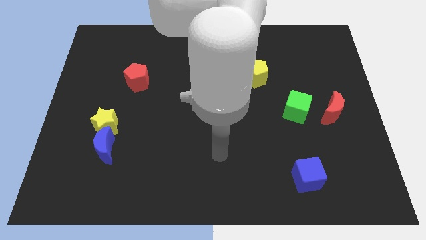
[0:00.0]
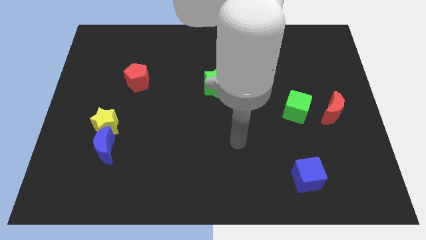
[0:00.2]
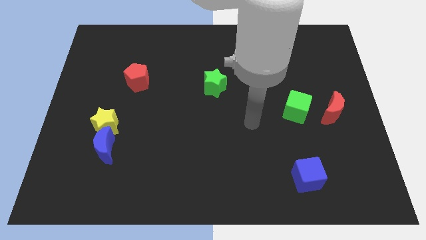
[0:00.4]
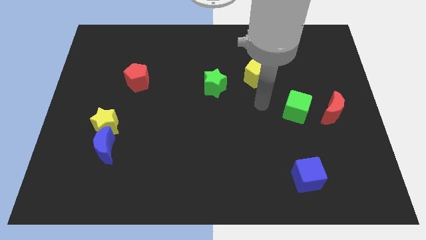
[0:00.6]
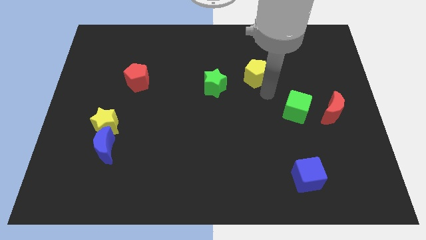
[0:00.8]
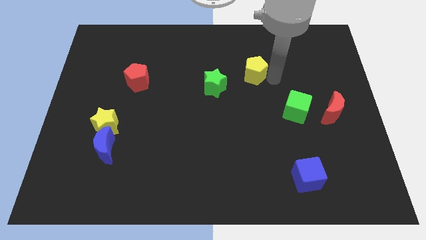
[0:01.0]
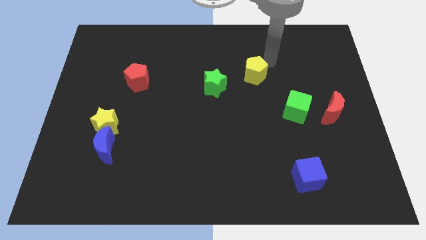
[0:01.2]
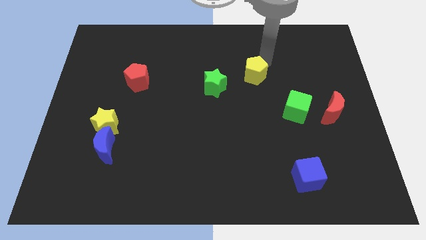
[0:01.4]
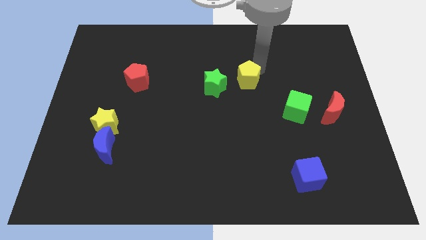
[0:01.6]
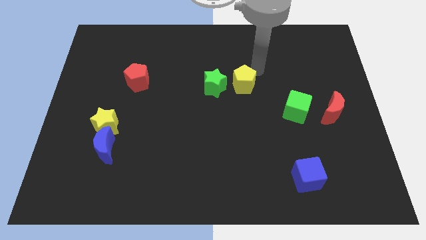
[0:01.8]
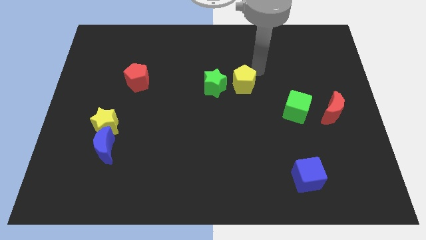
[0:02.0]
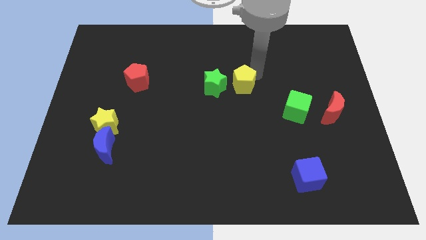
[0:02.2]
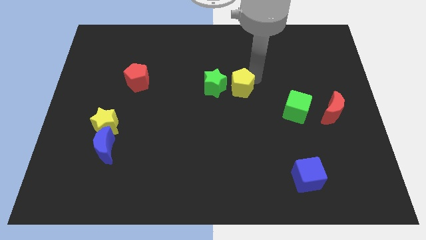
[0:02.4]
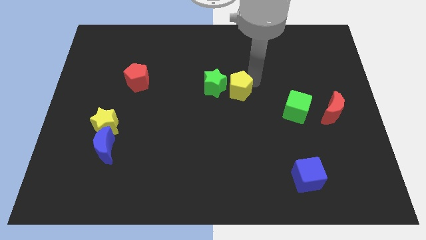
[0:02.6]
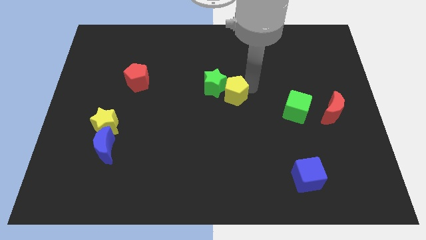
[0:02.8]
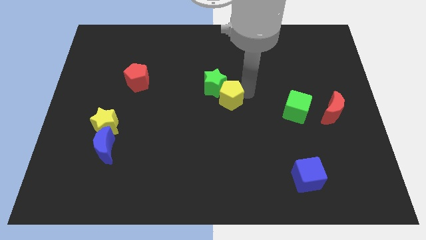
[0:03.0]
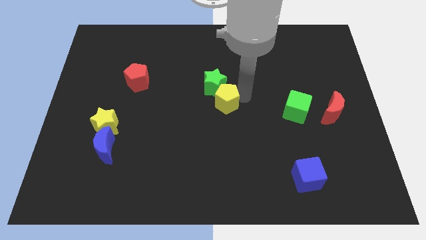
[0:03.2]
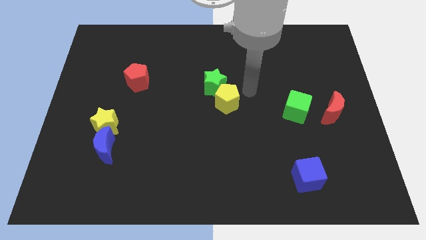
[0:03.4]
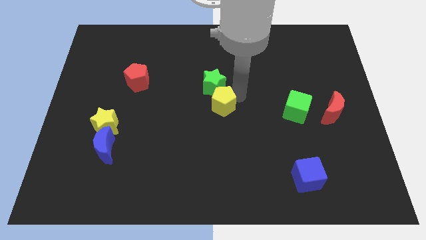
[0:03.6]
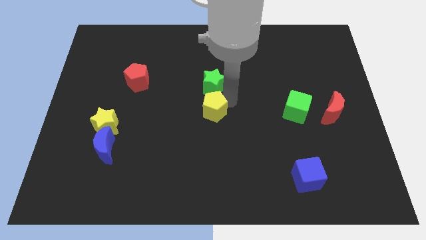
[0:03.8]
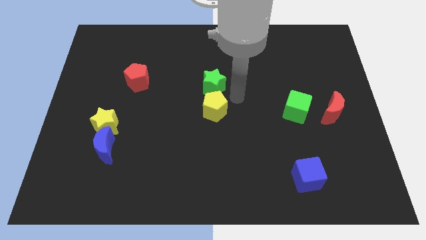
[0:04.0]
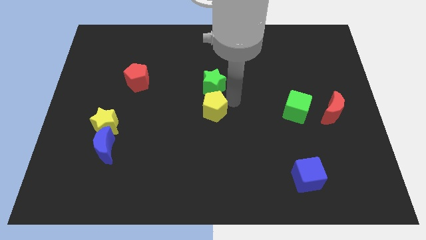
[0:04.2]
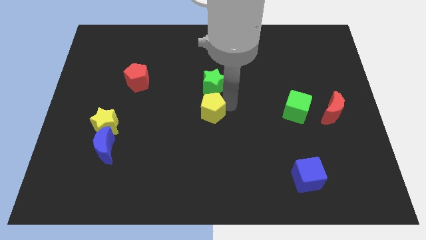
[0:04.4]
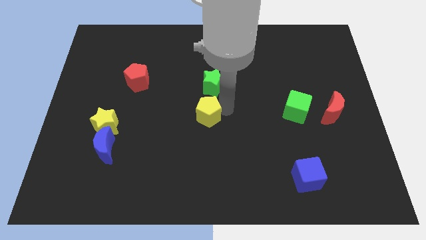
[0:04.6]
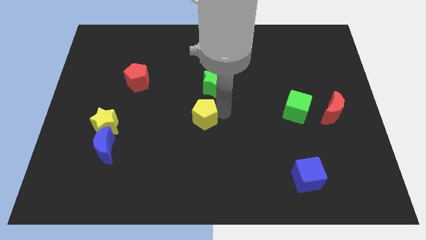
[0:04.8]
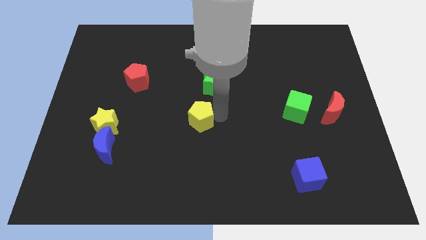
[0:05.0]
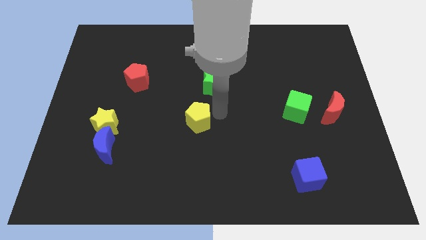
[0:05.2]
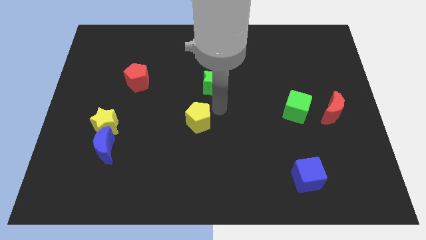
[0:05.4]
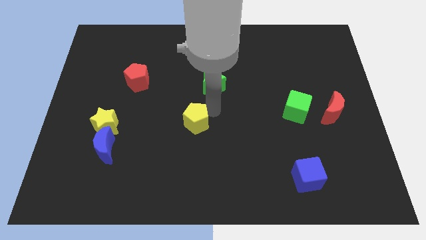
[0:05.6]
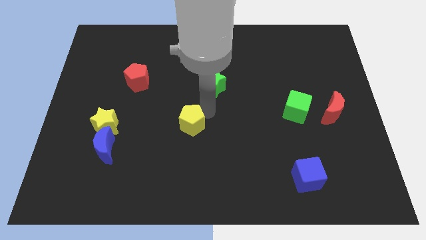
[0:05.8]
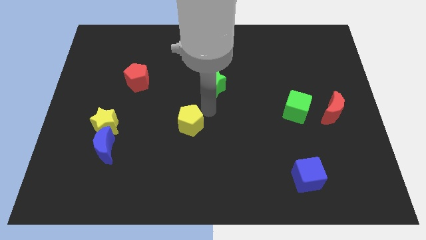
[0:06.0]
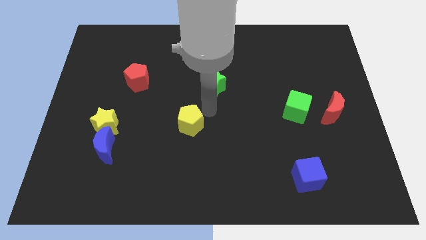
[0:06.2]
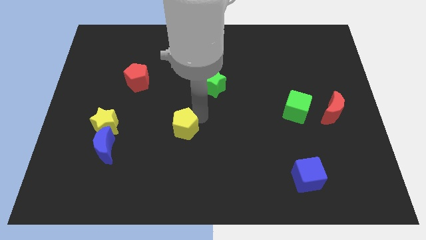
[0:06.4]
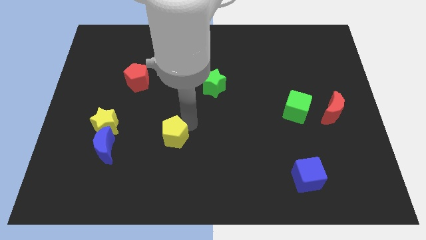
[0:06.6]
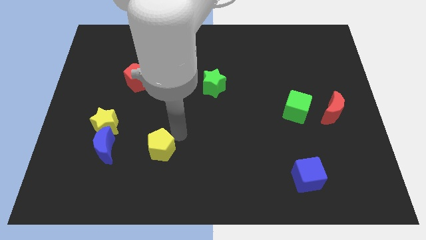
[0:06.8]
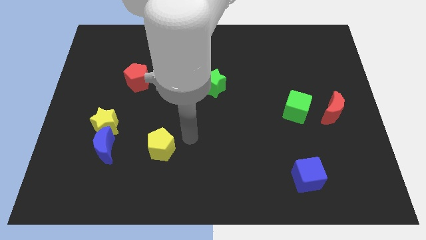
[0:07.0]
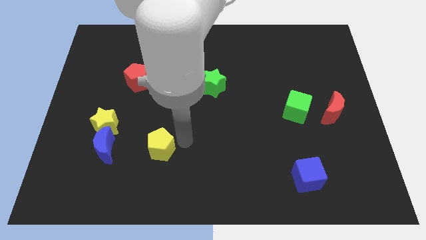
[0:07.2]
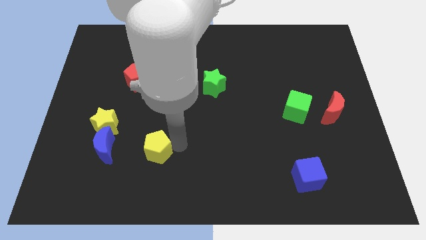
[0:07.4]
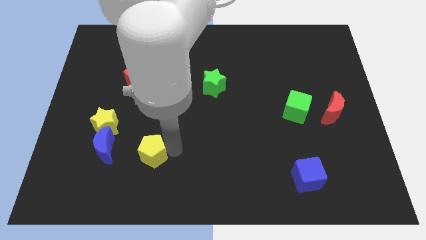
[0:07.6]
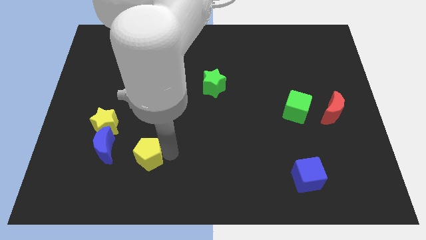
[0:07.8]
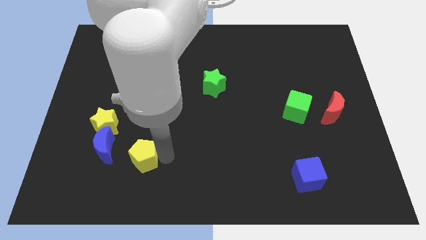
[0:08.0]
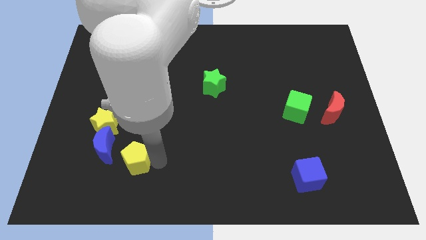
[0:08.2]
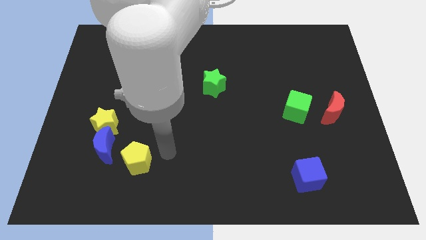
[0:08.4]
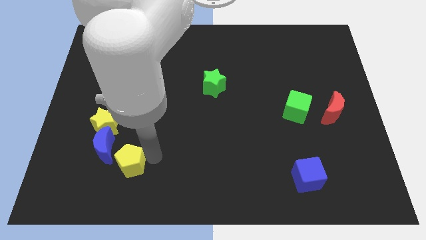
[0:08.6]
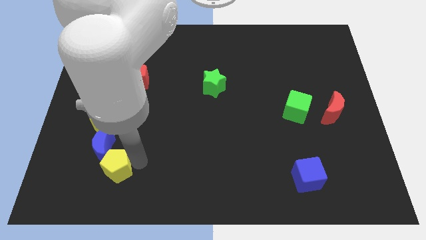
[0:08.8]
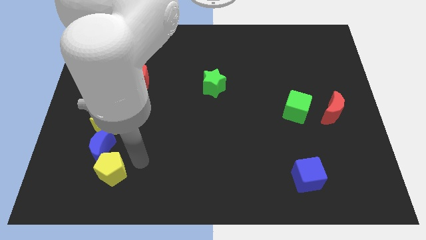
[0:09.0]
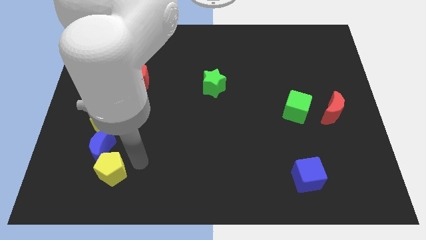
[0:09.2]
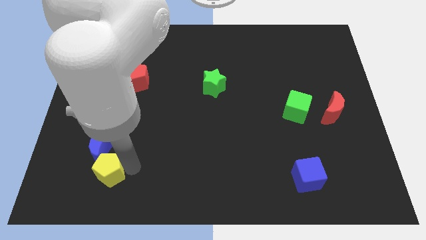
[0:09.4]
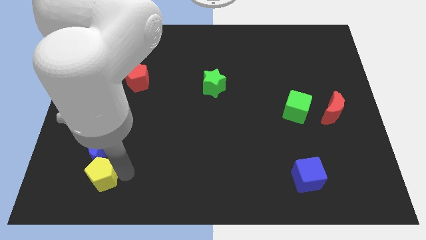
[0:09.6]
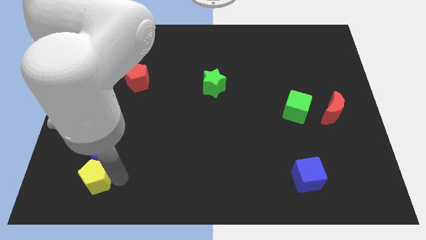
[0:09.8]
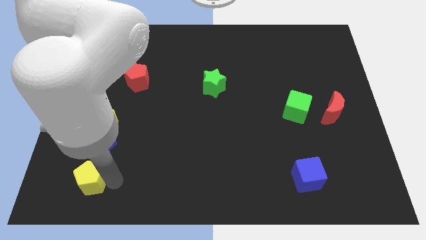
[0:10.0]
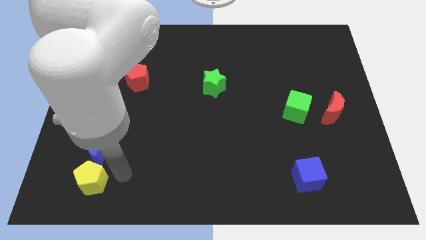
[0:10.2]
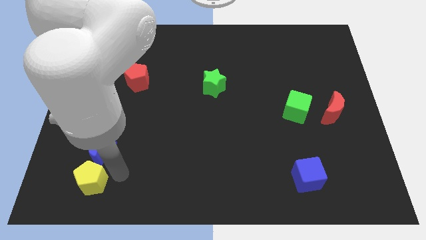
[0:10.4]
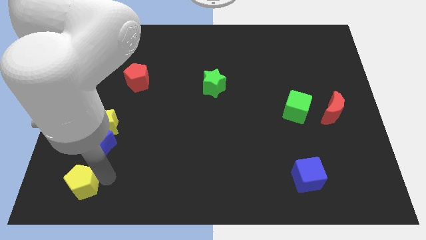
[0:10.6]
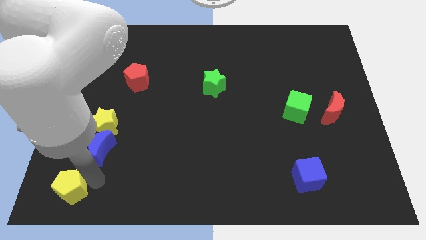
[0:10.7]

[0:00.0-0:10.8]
slide the yellow pentagon to the bottom left corner
